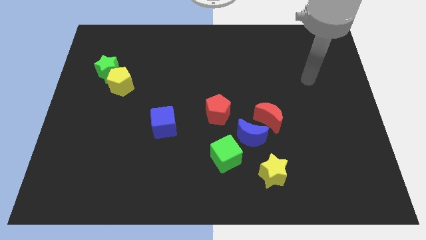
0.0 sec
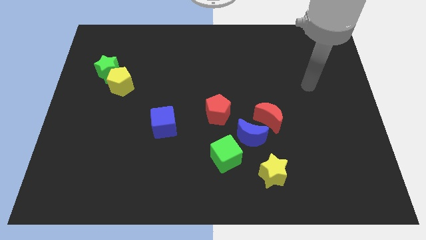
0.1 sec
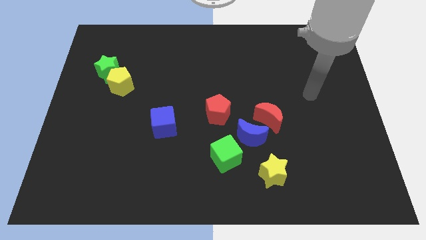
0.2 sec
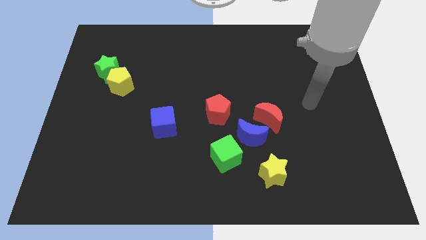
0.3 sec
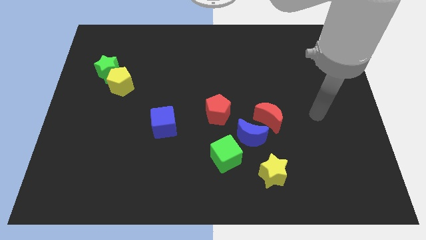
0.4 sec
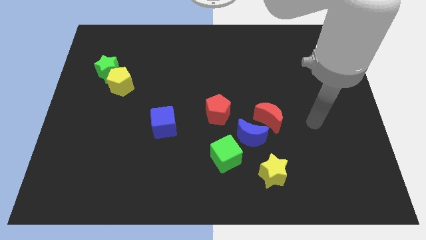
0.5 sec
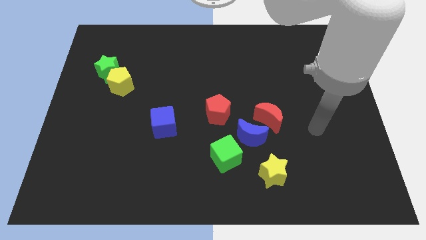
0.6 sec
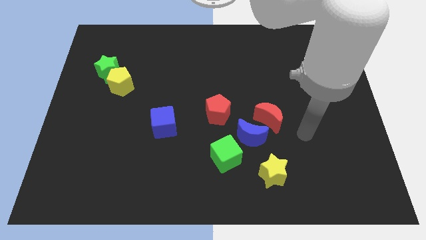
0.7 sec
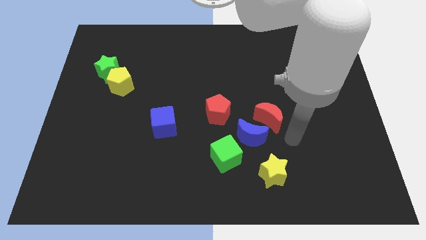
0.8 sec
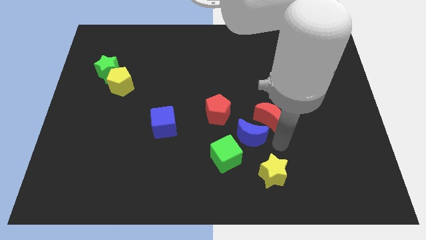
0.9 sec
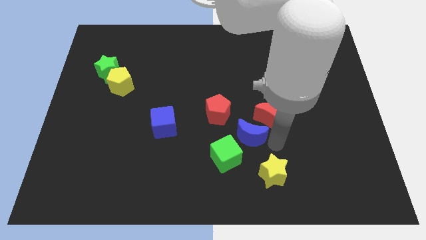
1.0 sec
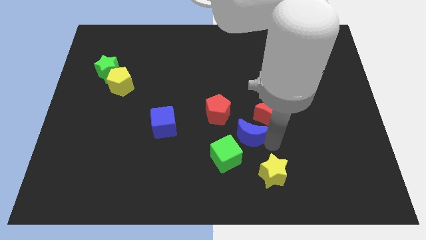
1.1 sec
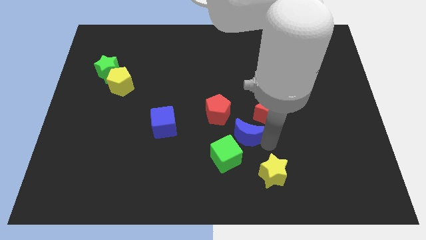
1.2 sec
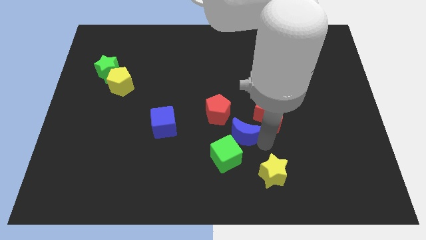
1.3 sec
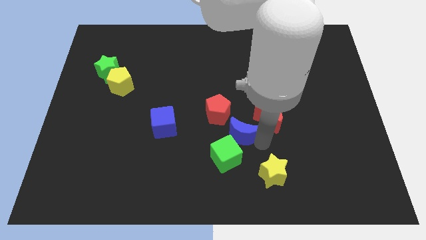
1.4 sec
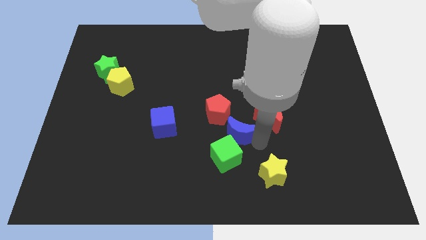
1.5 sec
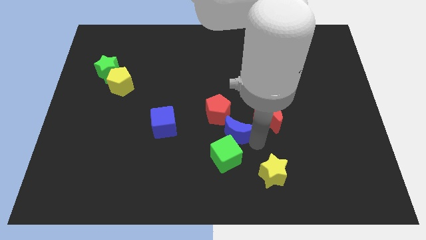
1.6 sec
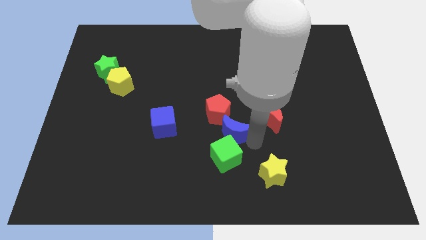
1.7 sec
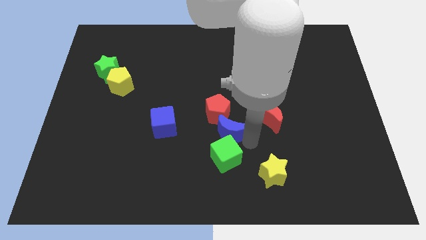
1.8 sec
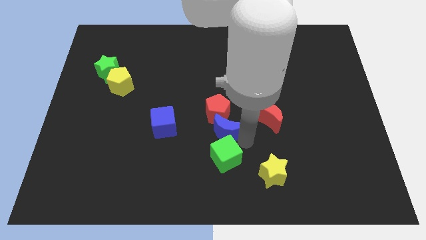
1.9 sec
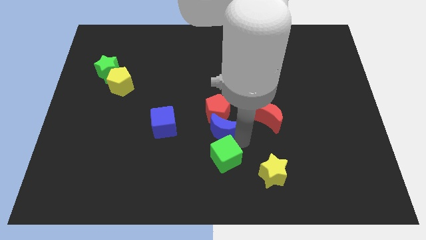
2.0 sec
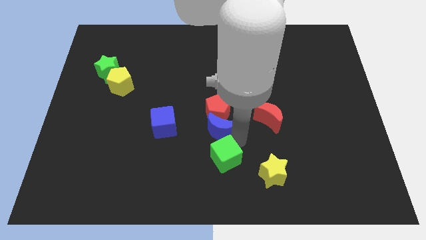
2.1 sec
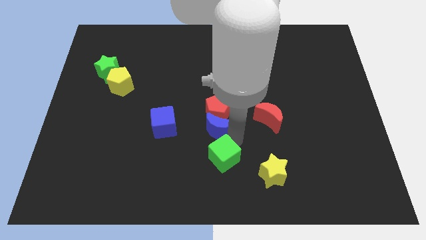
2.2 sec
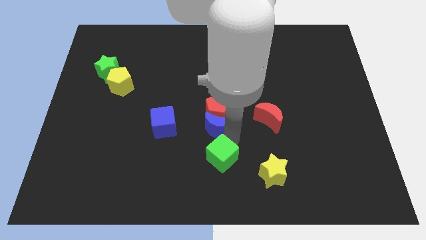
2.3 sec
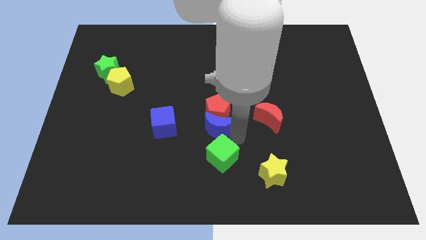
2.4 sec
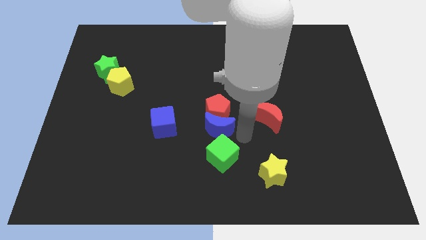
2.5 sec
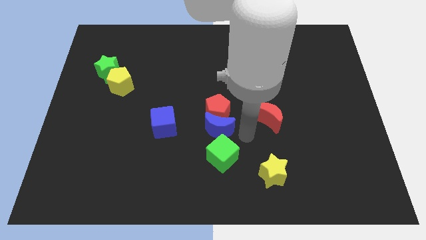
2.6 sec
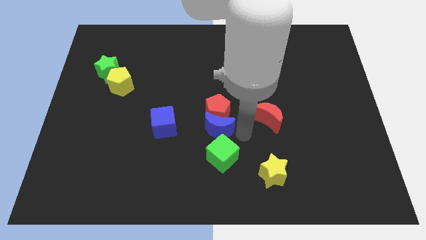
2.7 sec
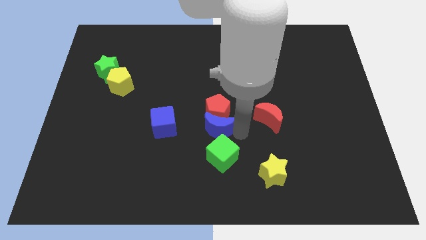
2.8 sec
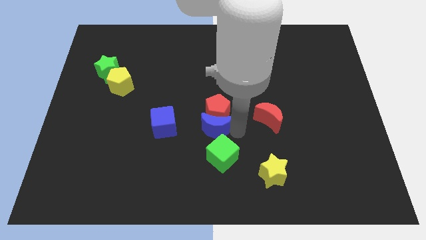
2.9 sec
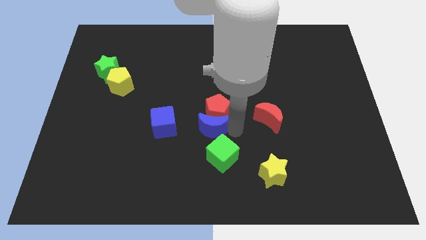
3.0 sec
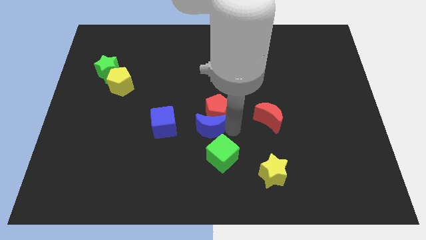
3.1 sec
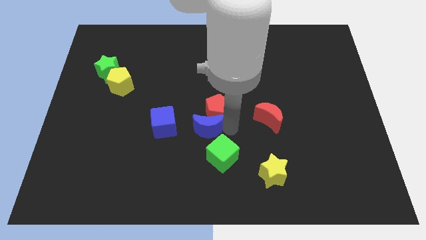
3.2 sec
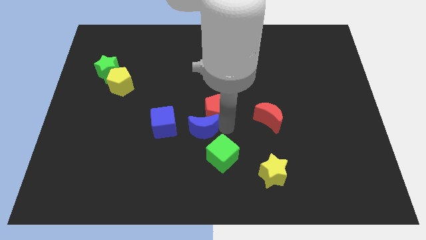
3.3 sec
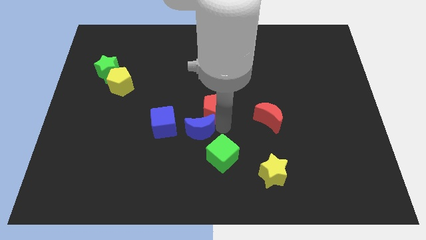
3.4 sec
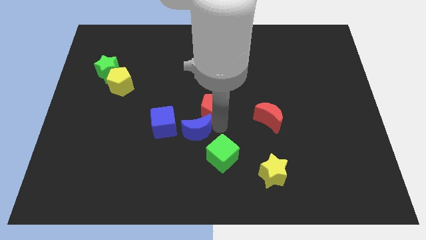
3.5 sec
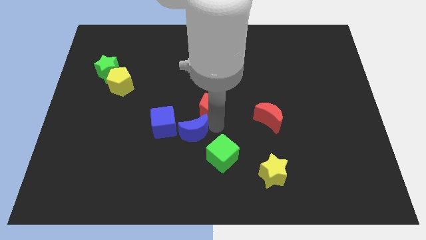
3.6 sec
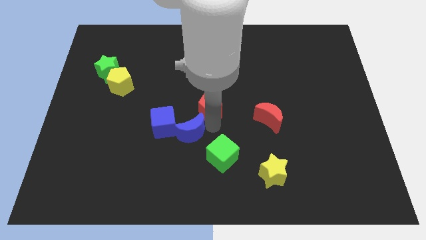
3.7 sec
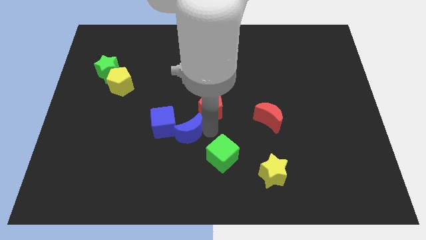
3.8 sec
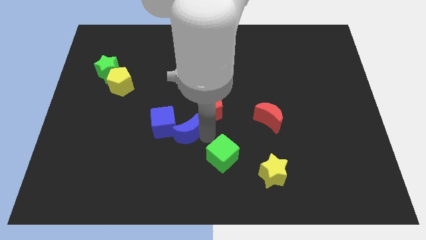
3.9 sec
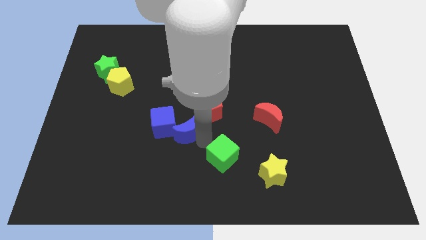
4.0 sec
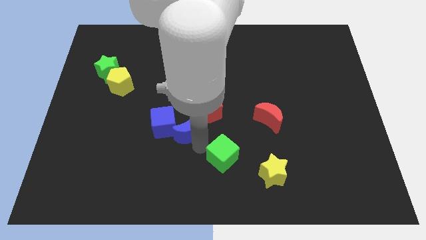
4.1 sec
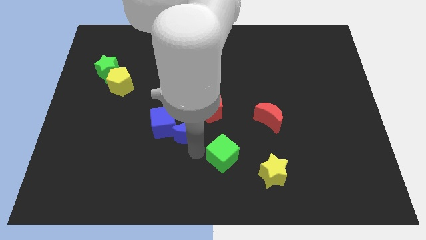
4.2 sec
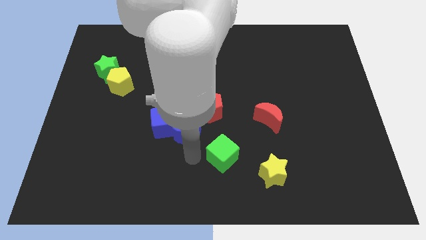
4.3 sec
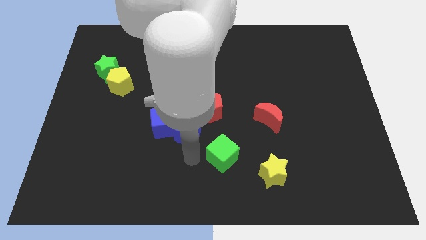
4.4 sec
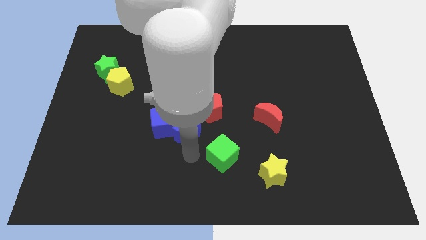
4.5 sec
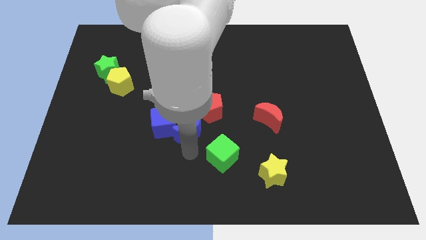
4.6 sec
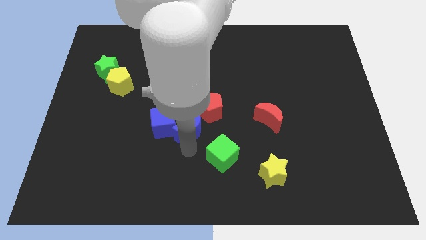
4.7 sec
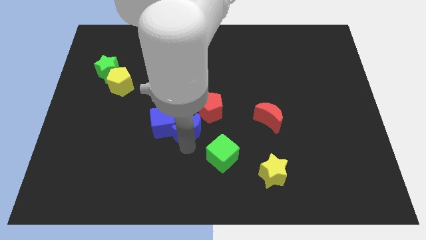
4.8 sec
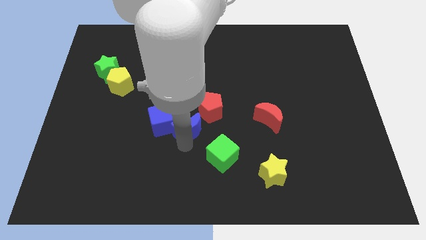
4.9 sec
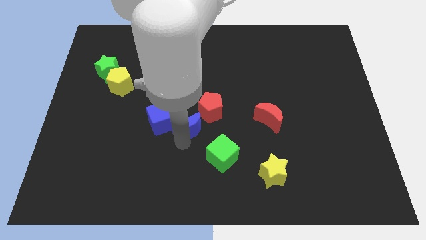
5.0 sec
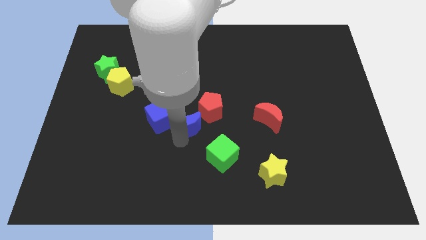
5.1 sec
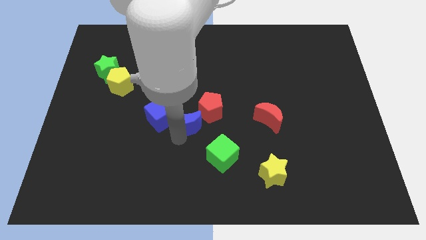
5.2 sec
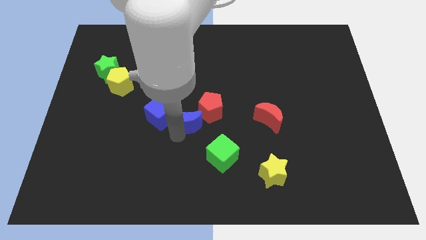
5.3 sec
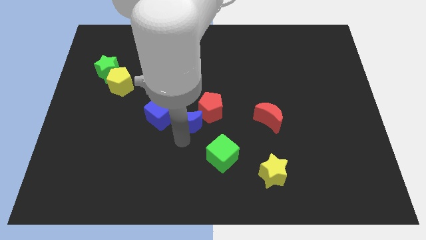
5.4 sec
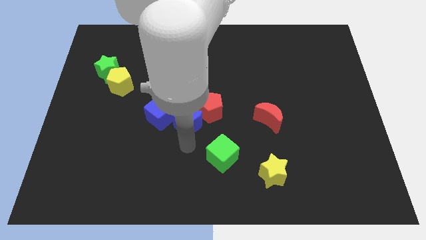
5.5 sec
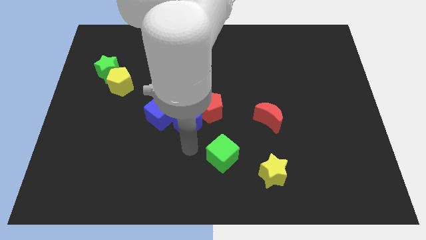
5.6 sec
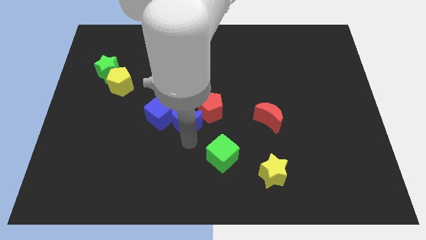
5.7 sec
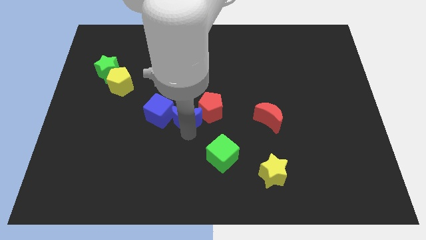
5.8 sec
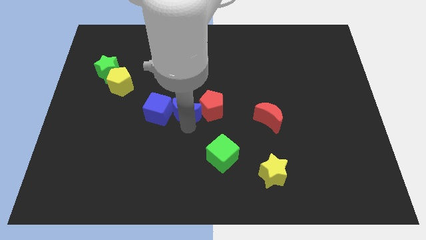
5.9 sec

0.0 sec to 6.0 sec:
put the blue moon to the top right side of the blue cube

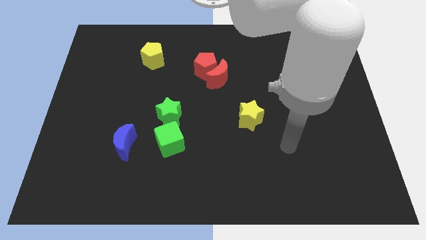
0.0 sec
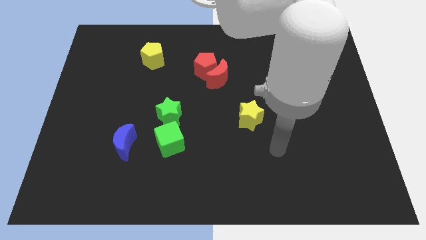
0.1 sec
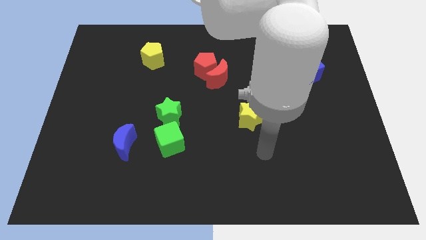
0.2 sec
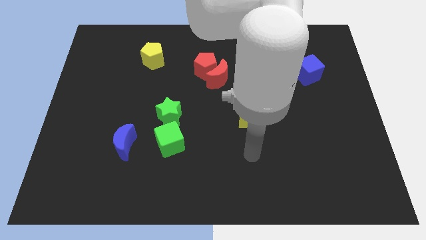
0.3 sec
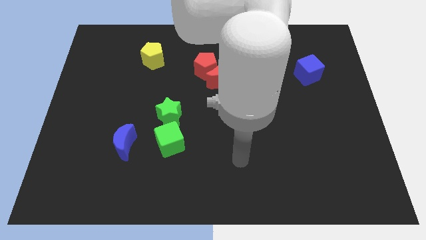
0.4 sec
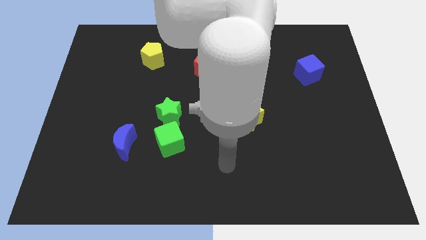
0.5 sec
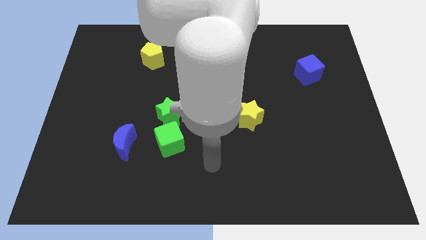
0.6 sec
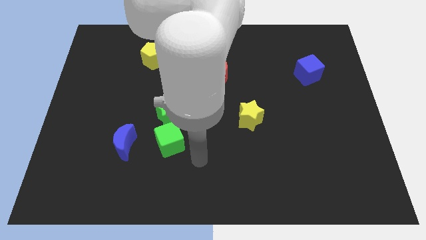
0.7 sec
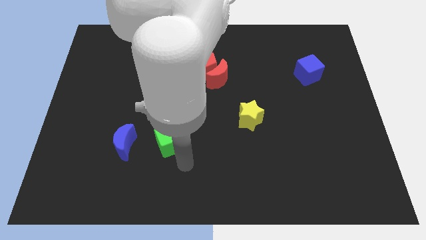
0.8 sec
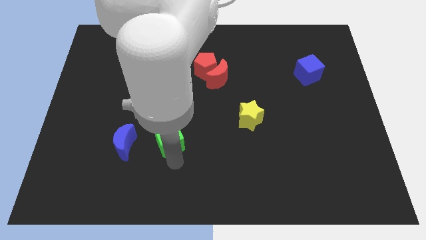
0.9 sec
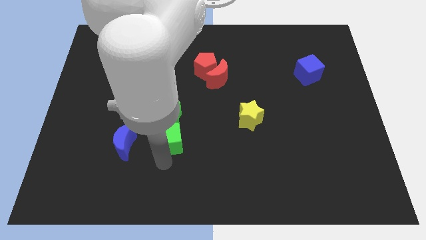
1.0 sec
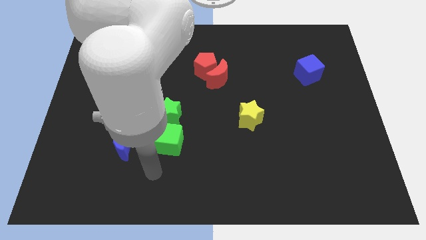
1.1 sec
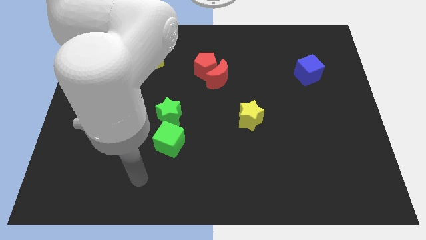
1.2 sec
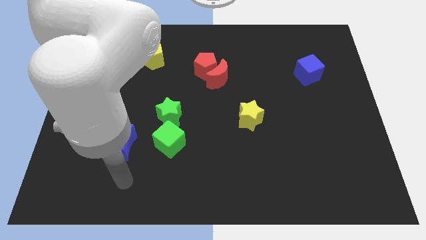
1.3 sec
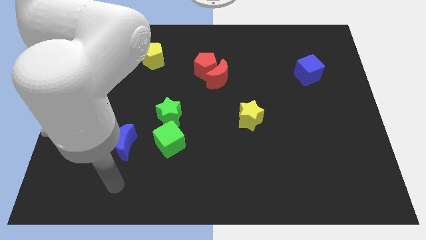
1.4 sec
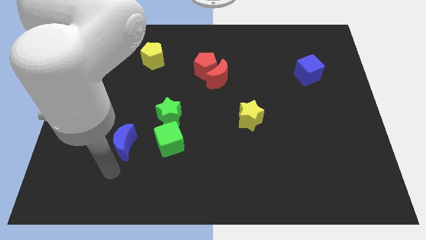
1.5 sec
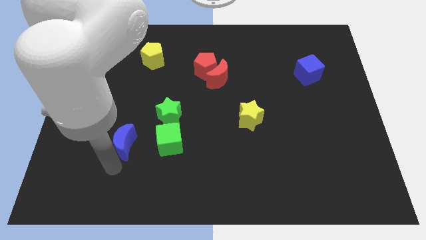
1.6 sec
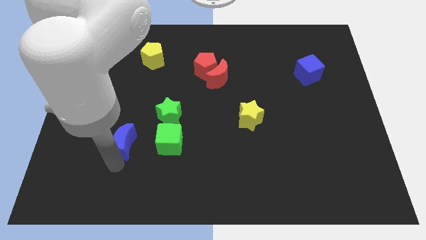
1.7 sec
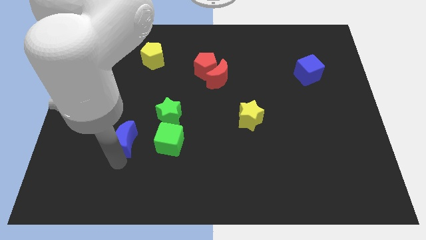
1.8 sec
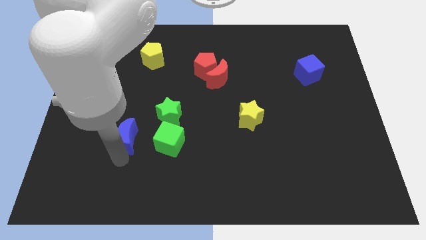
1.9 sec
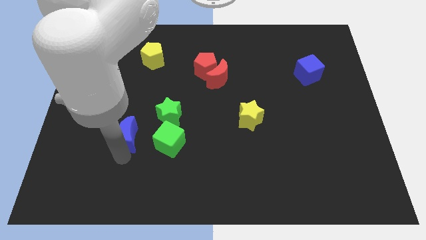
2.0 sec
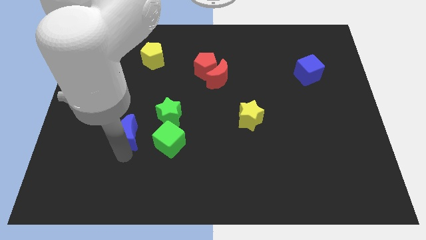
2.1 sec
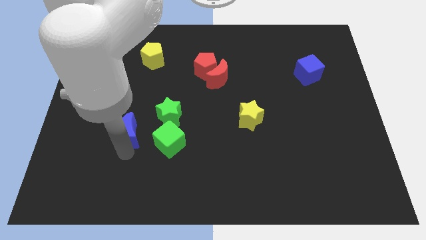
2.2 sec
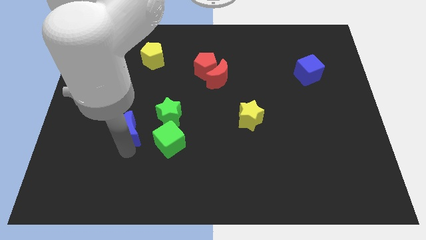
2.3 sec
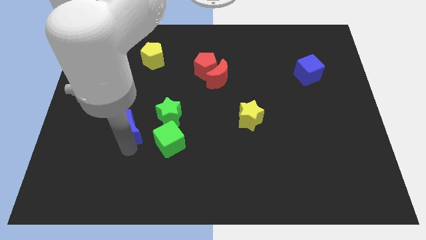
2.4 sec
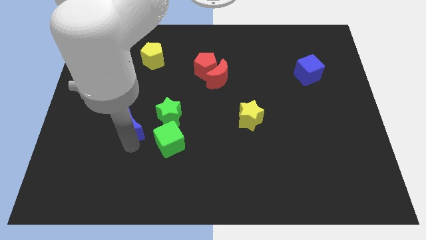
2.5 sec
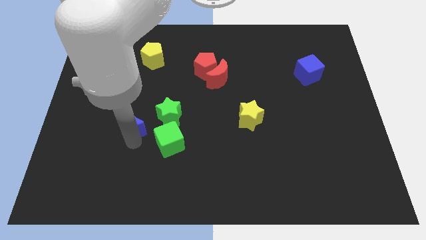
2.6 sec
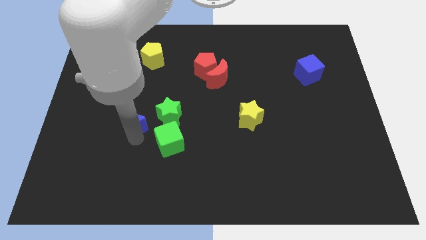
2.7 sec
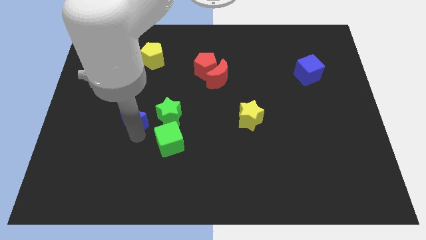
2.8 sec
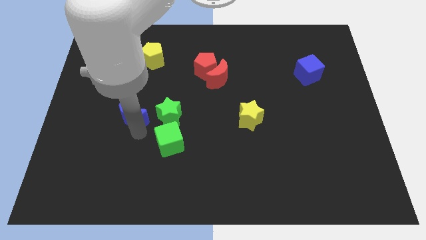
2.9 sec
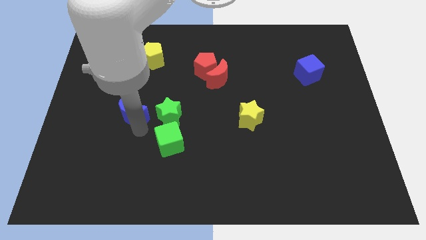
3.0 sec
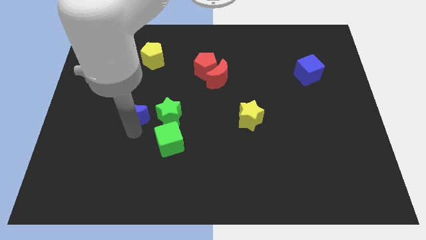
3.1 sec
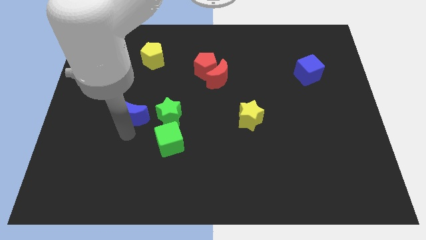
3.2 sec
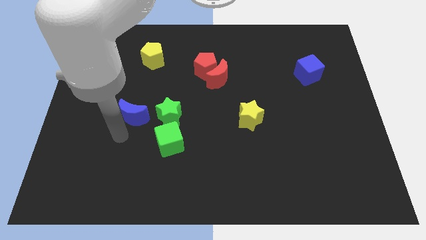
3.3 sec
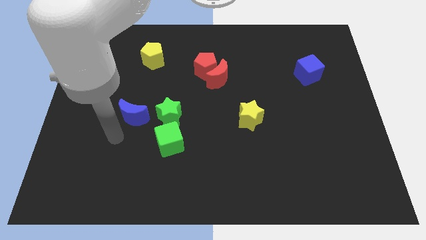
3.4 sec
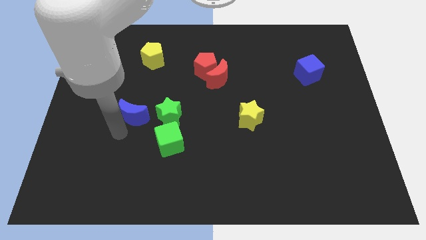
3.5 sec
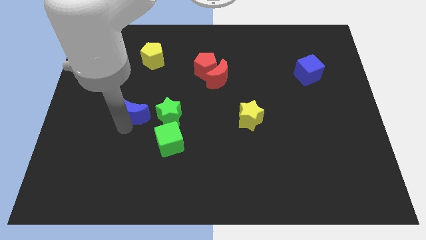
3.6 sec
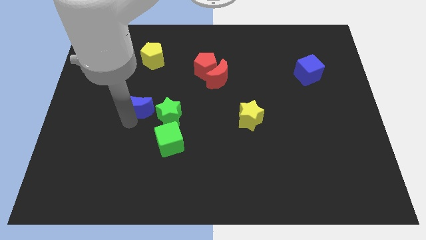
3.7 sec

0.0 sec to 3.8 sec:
move the blue moon to the top left of the green star
